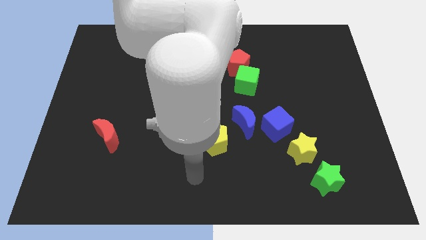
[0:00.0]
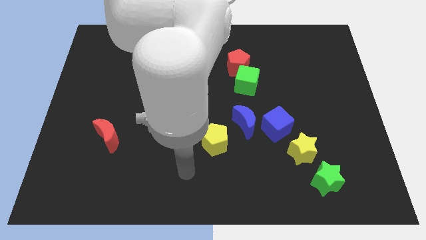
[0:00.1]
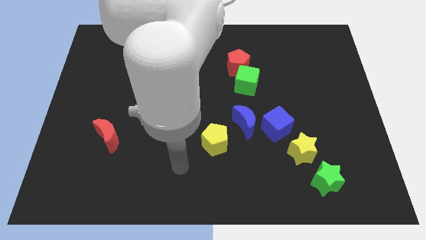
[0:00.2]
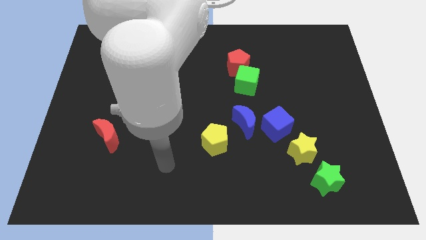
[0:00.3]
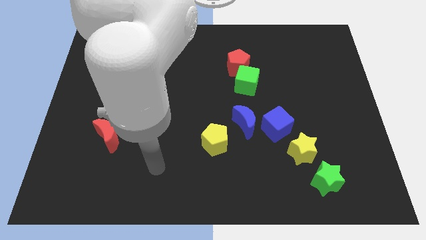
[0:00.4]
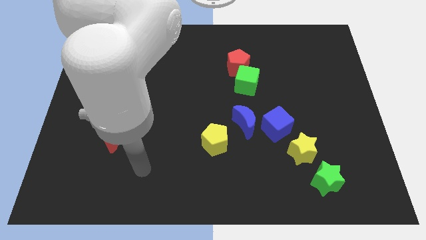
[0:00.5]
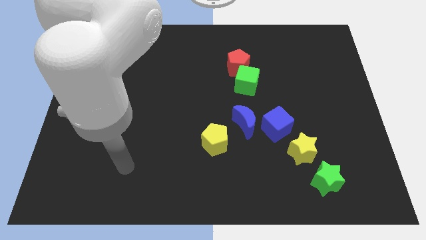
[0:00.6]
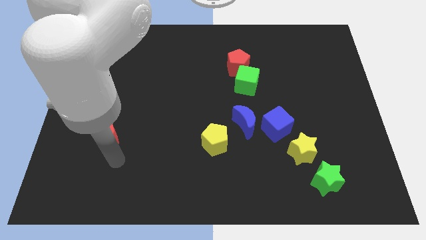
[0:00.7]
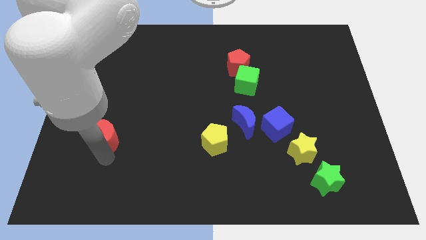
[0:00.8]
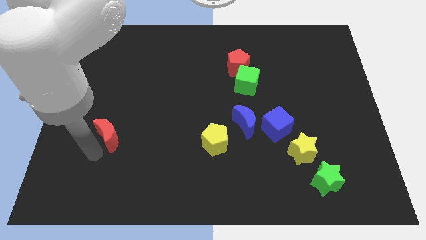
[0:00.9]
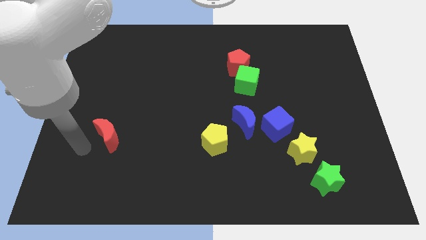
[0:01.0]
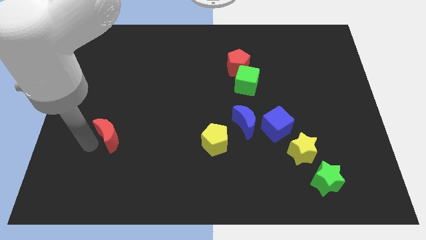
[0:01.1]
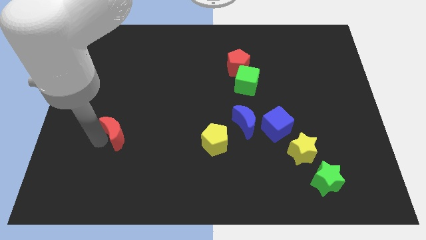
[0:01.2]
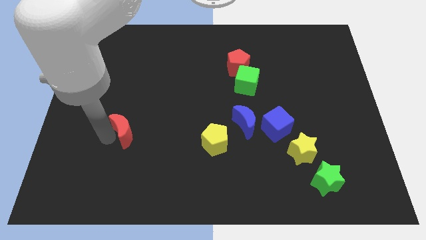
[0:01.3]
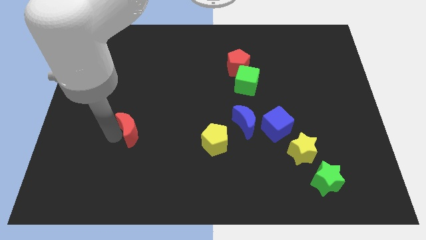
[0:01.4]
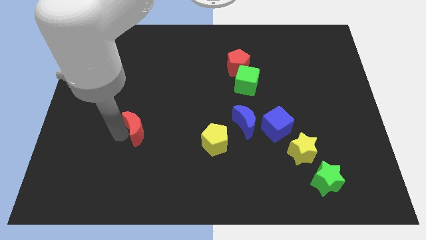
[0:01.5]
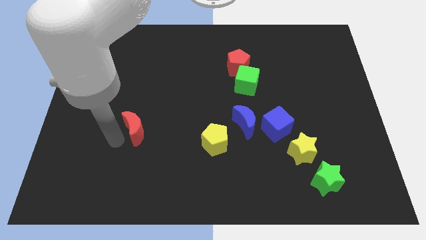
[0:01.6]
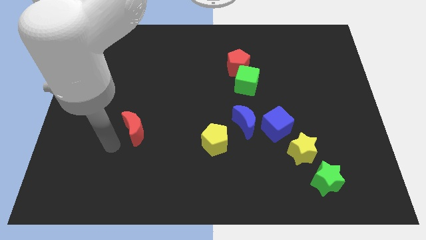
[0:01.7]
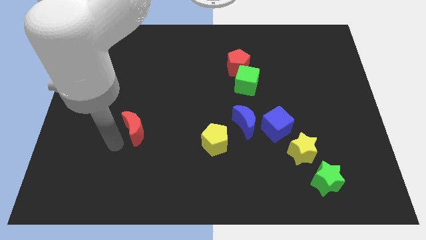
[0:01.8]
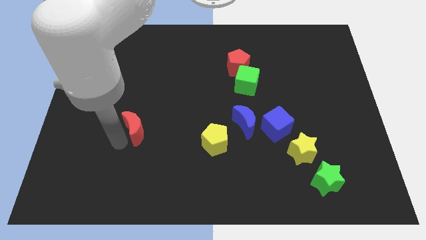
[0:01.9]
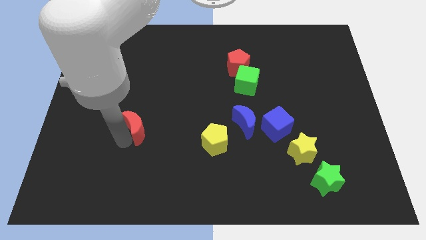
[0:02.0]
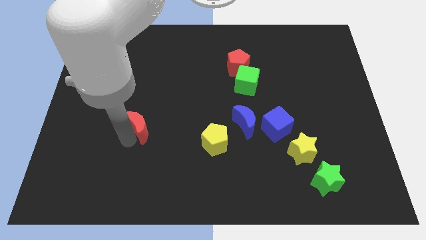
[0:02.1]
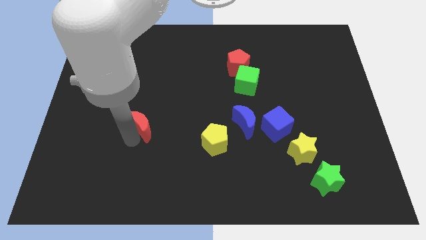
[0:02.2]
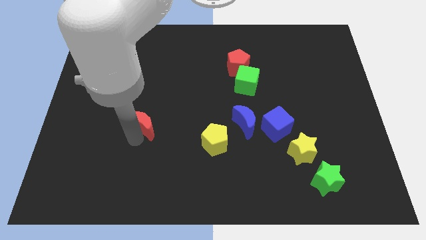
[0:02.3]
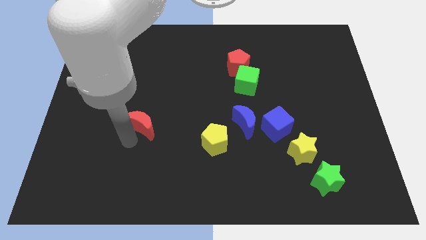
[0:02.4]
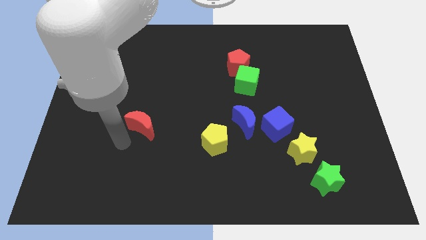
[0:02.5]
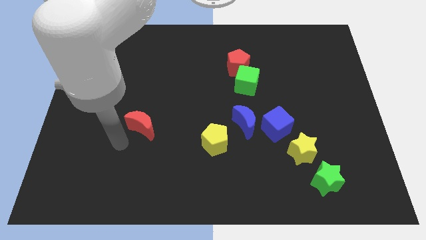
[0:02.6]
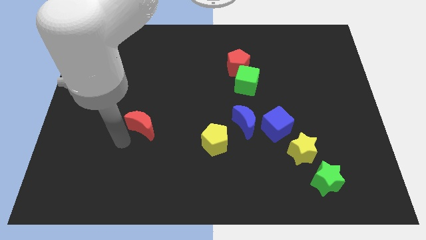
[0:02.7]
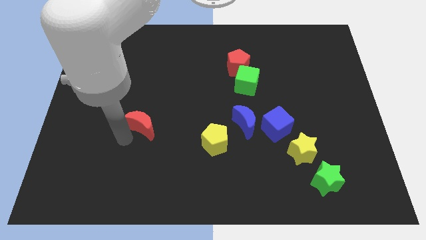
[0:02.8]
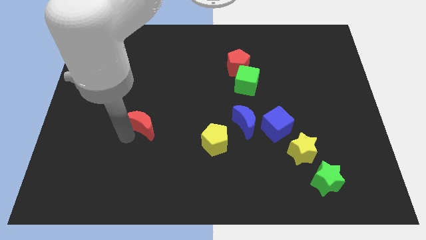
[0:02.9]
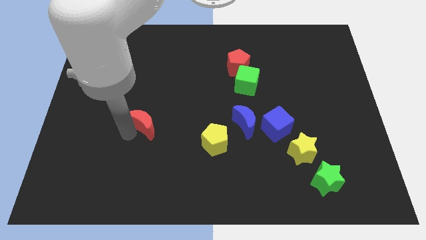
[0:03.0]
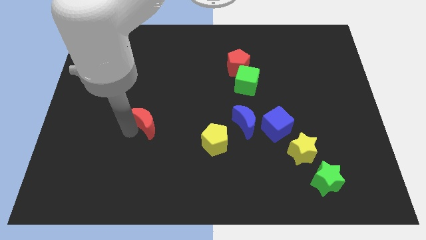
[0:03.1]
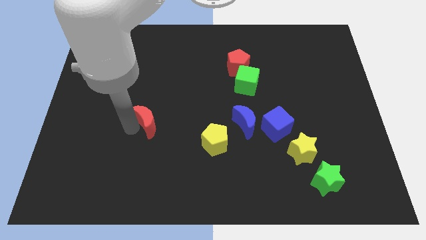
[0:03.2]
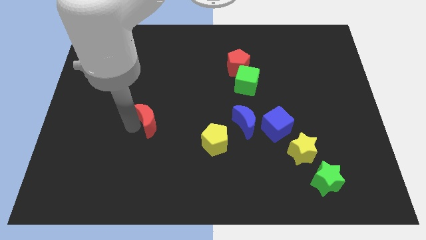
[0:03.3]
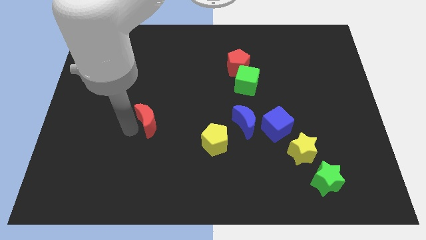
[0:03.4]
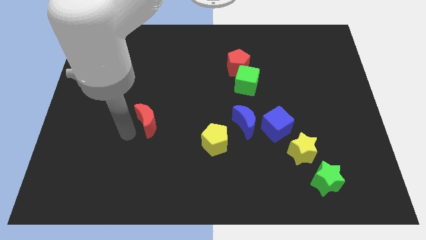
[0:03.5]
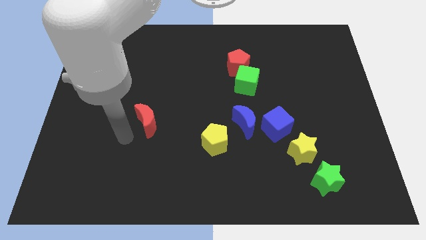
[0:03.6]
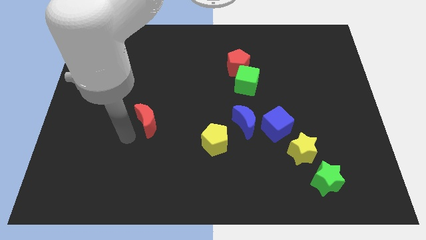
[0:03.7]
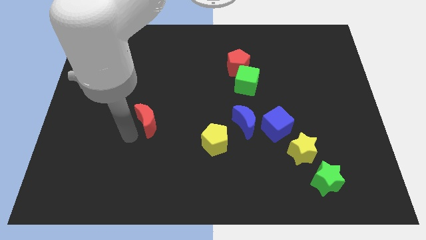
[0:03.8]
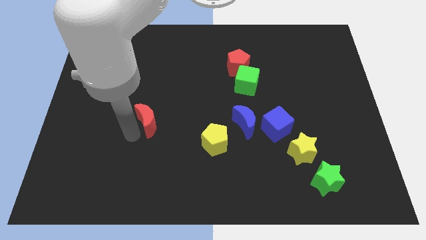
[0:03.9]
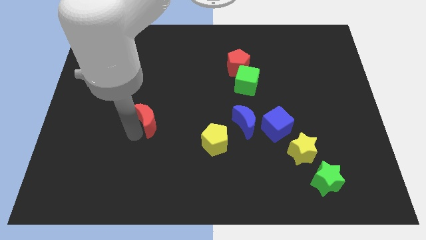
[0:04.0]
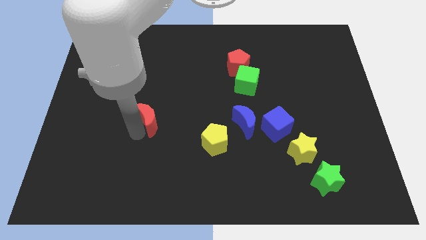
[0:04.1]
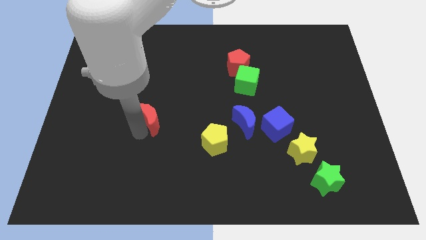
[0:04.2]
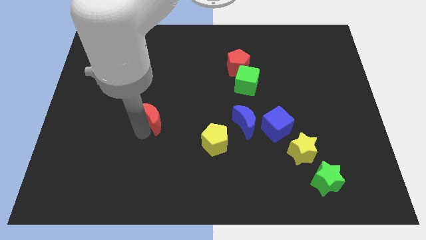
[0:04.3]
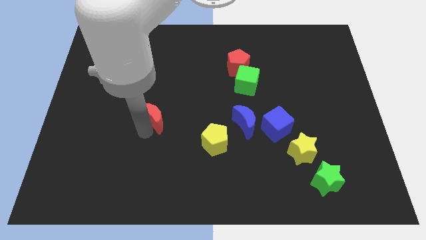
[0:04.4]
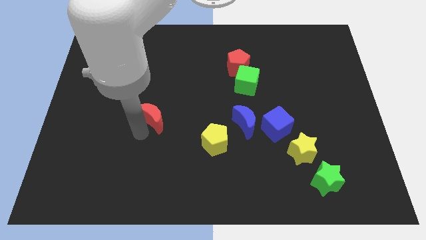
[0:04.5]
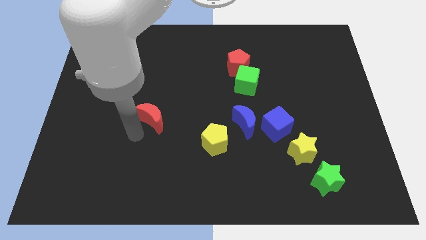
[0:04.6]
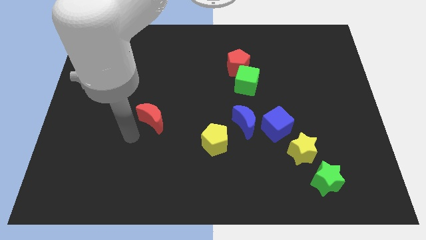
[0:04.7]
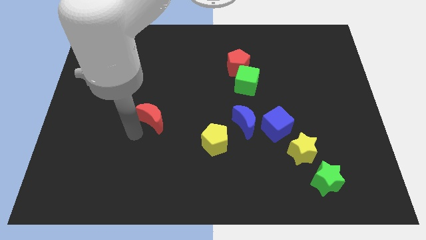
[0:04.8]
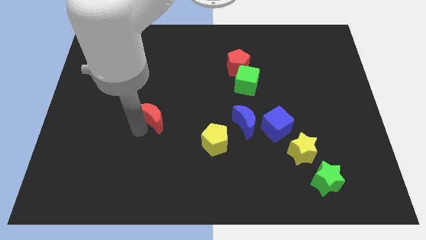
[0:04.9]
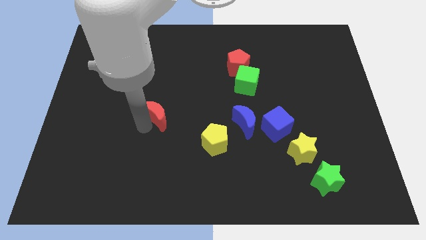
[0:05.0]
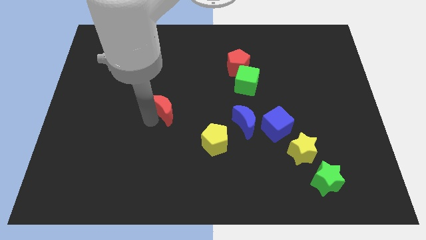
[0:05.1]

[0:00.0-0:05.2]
slide the red moon to the middle

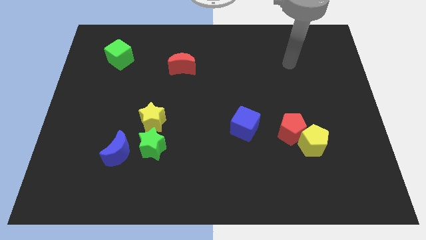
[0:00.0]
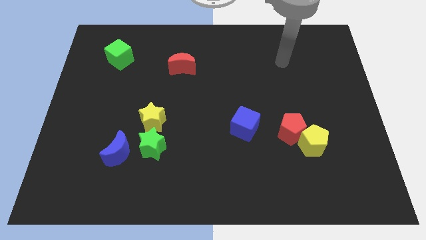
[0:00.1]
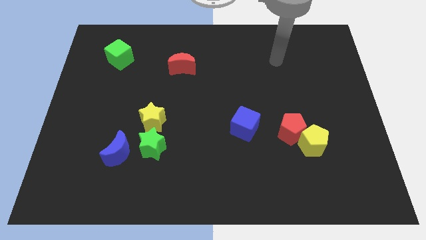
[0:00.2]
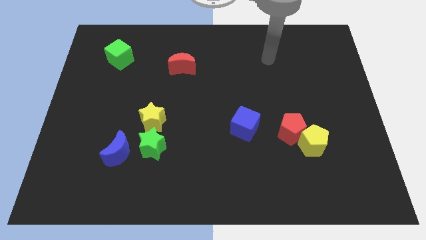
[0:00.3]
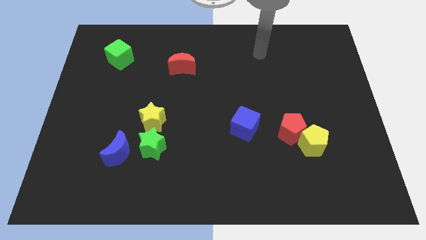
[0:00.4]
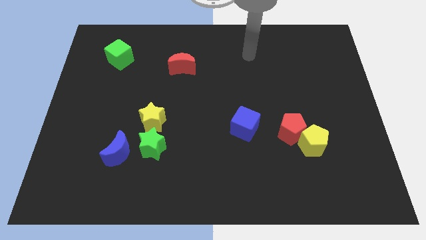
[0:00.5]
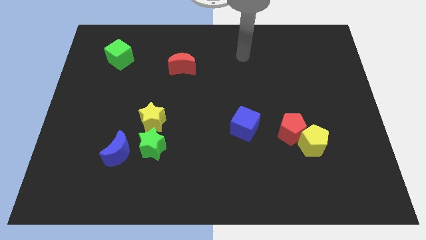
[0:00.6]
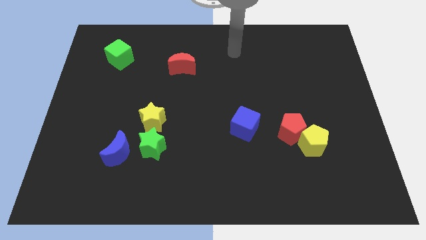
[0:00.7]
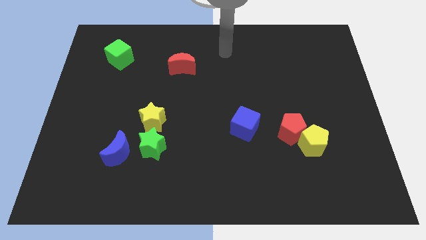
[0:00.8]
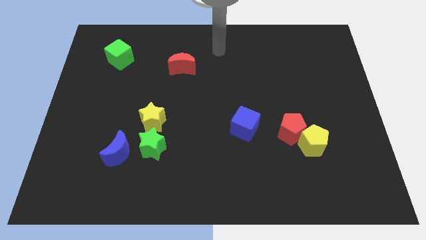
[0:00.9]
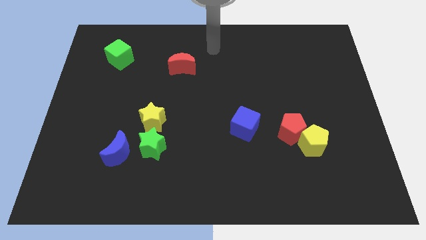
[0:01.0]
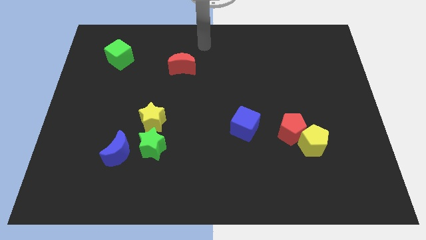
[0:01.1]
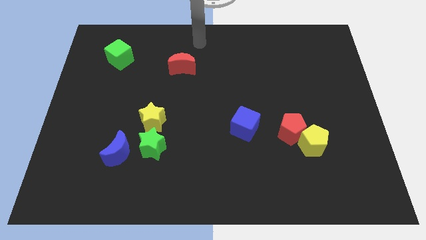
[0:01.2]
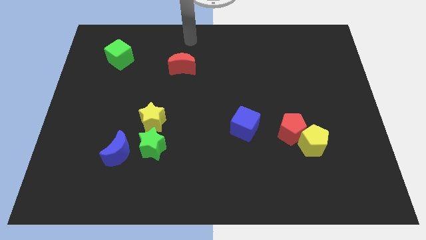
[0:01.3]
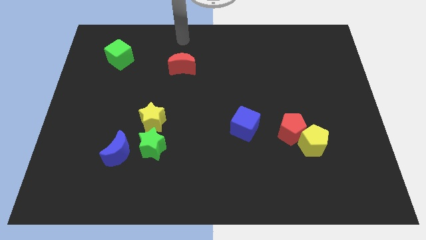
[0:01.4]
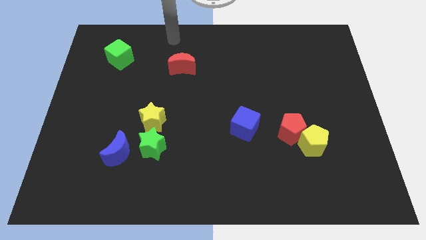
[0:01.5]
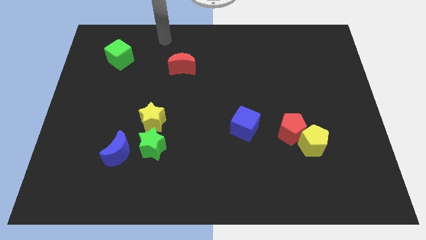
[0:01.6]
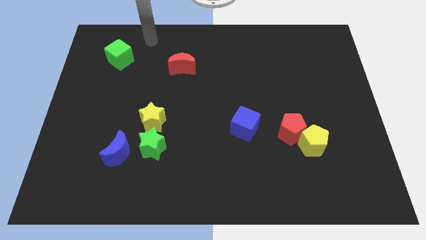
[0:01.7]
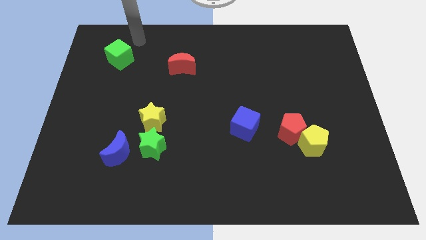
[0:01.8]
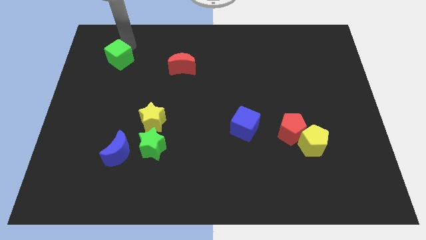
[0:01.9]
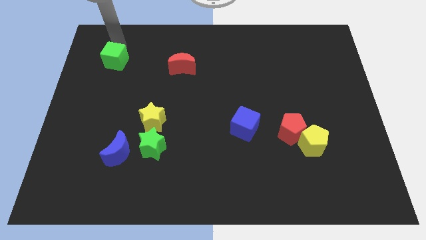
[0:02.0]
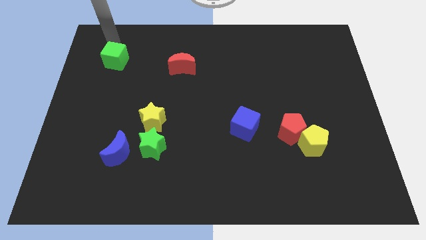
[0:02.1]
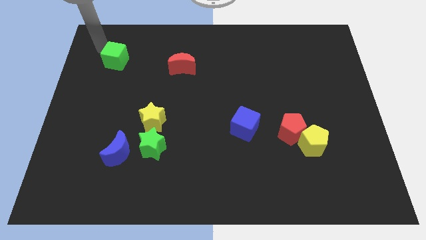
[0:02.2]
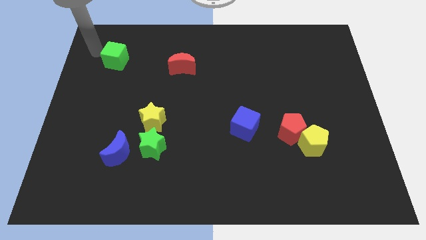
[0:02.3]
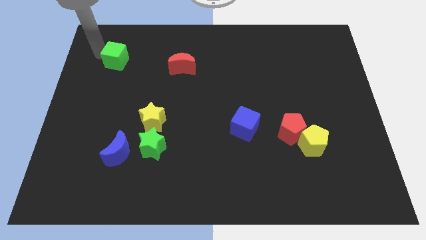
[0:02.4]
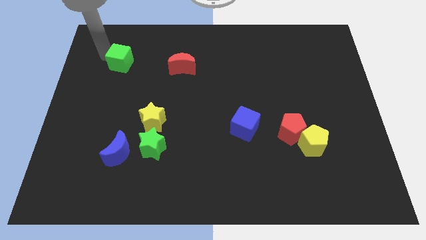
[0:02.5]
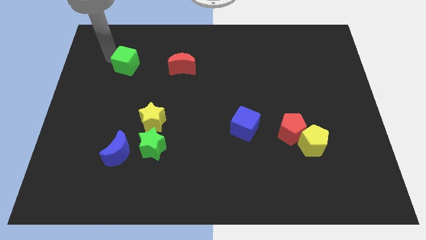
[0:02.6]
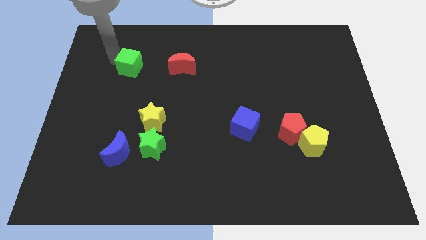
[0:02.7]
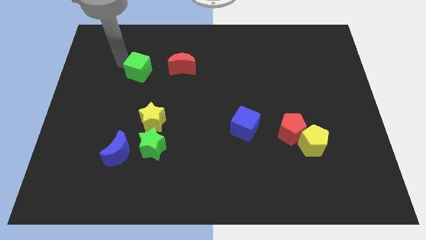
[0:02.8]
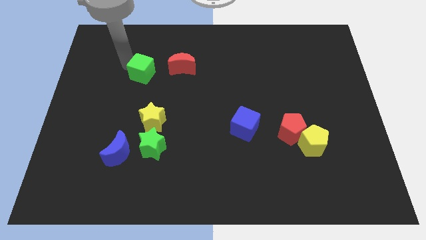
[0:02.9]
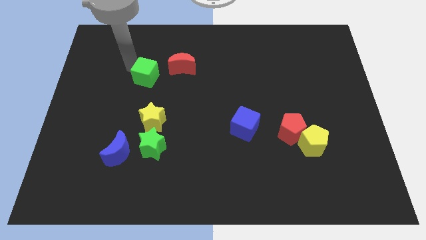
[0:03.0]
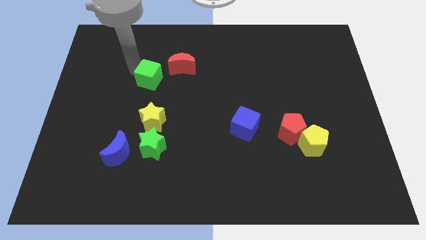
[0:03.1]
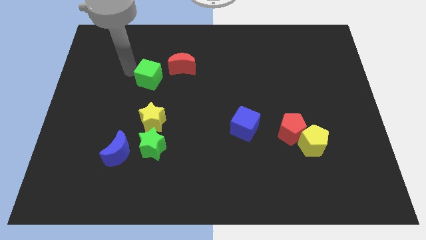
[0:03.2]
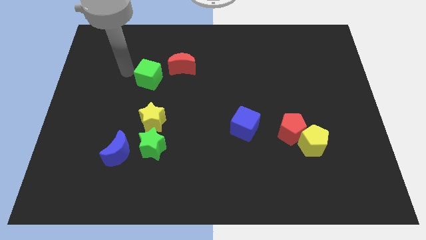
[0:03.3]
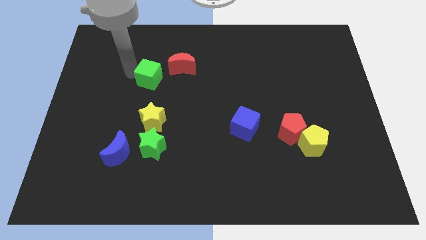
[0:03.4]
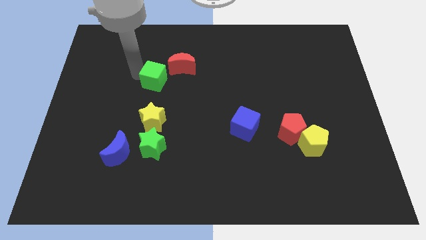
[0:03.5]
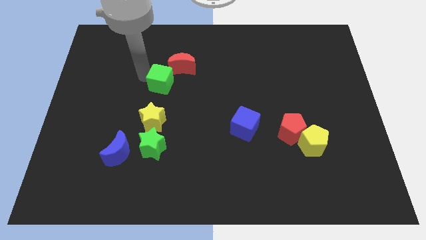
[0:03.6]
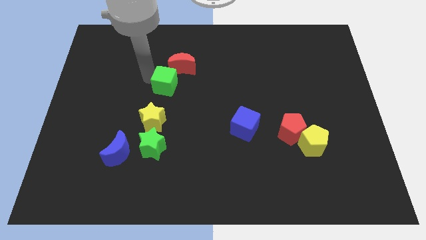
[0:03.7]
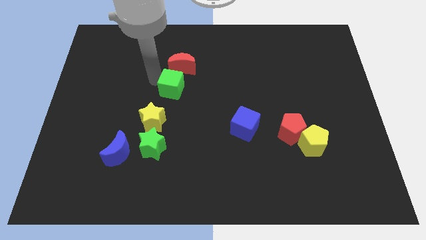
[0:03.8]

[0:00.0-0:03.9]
move the green cube to the middle
